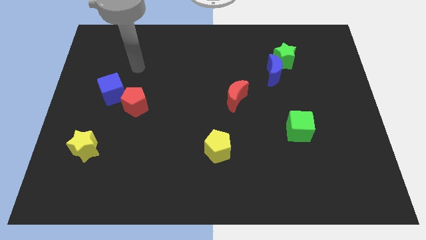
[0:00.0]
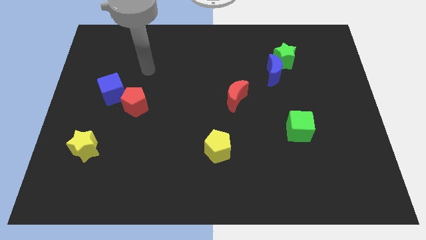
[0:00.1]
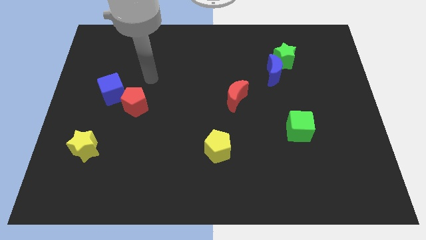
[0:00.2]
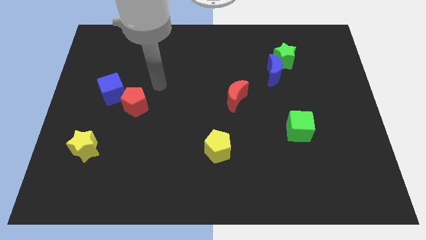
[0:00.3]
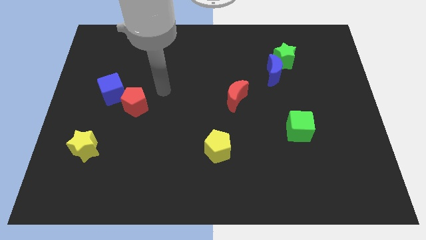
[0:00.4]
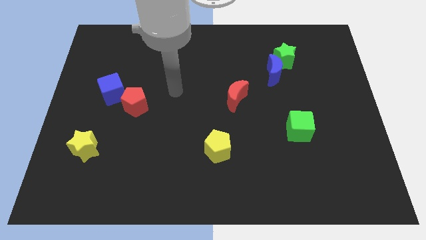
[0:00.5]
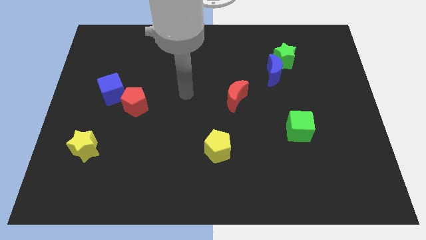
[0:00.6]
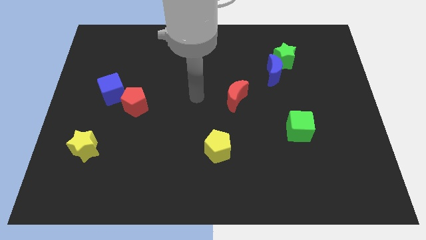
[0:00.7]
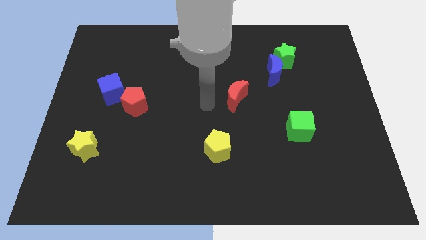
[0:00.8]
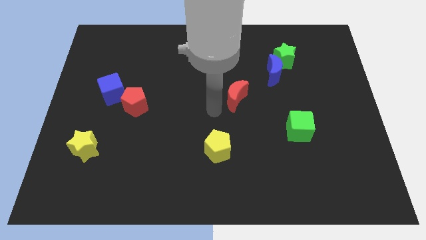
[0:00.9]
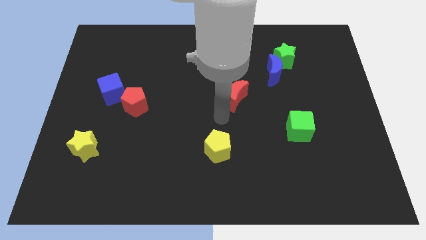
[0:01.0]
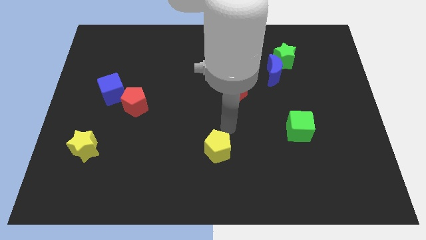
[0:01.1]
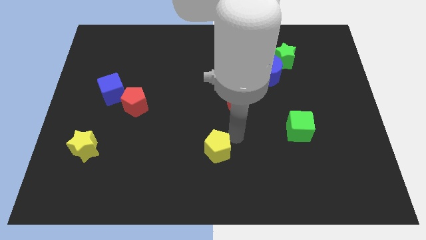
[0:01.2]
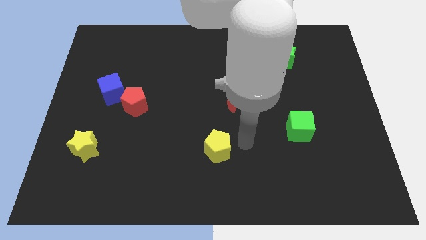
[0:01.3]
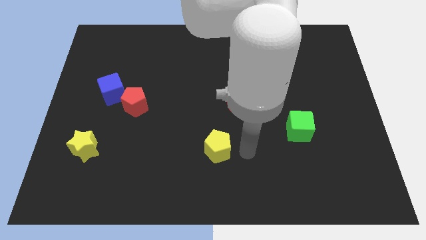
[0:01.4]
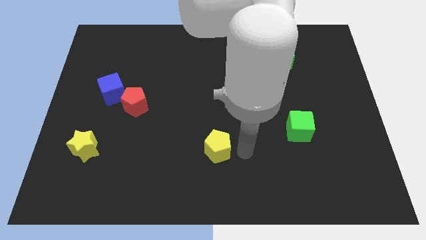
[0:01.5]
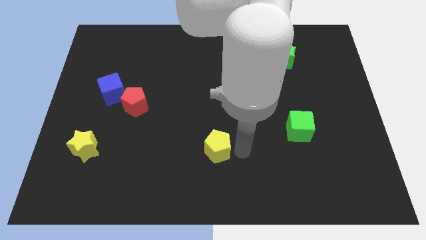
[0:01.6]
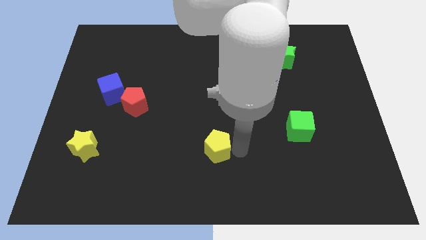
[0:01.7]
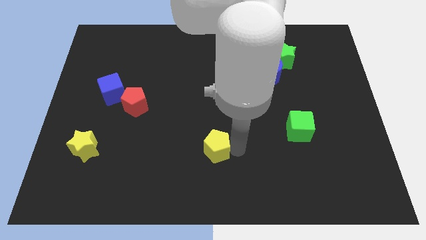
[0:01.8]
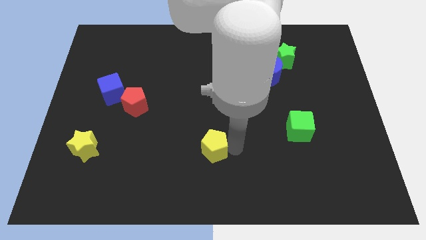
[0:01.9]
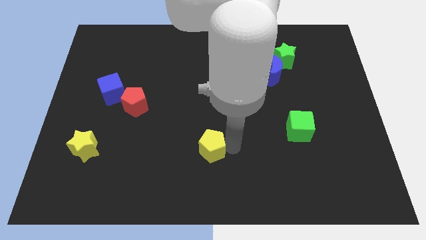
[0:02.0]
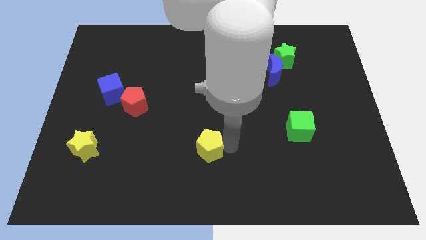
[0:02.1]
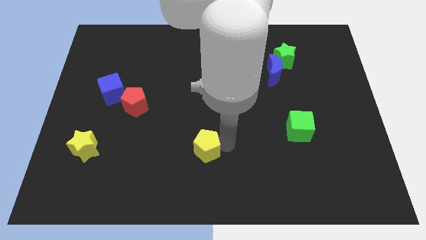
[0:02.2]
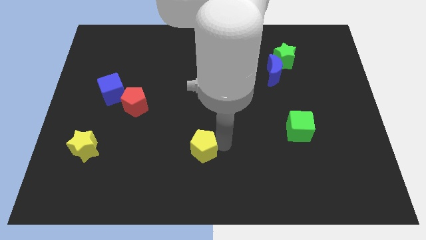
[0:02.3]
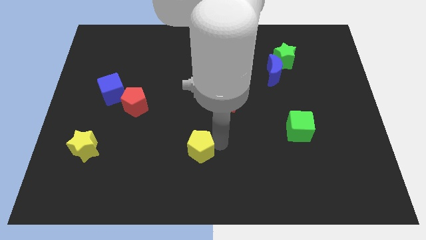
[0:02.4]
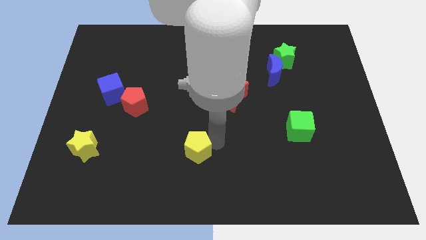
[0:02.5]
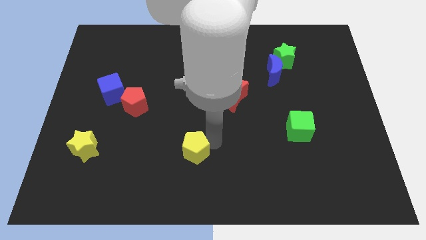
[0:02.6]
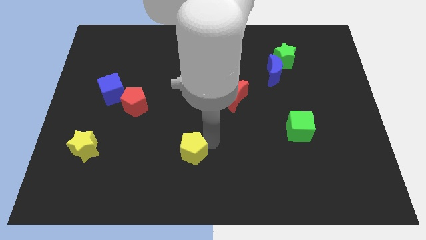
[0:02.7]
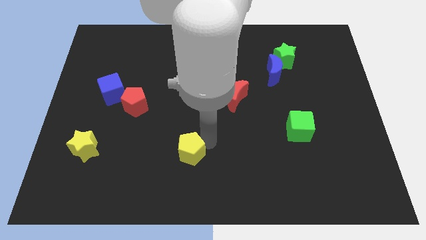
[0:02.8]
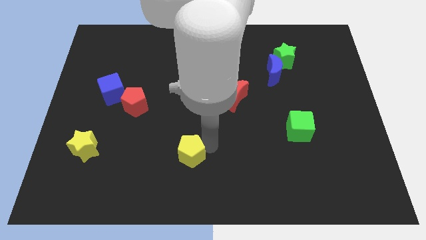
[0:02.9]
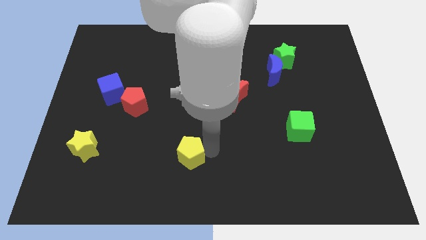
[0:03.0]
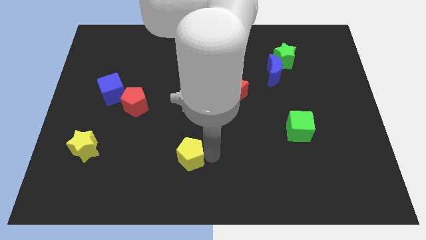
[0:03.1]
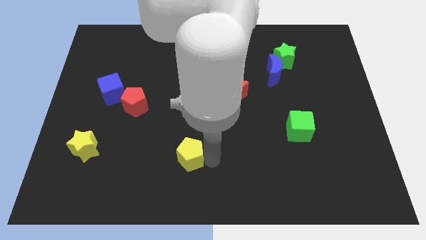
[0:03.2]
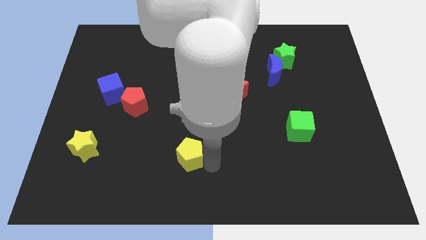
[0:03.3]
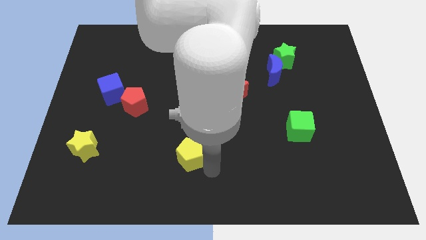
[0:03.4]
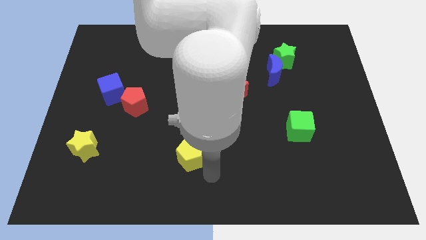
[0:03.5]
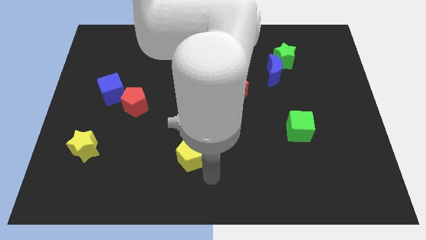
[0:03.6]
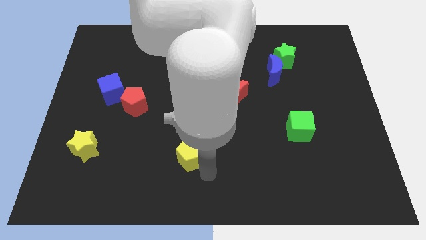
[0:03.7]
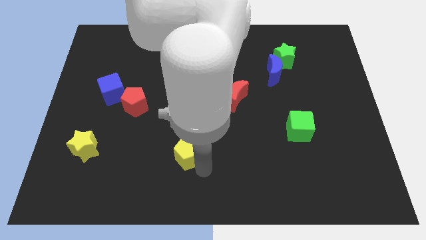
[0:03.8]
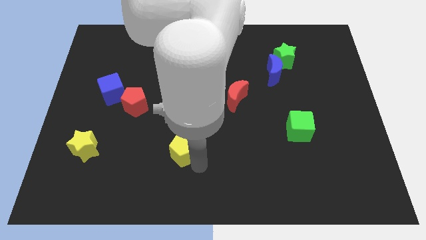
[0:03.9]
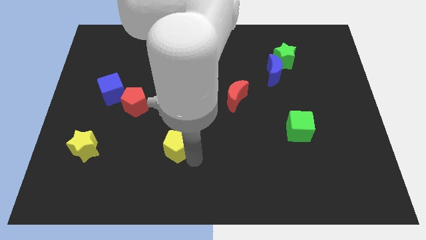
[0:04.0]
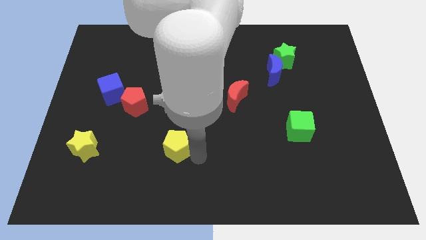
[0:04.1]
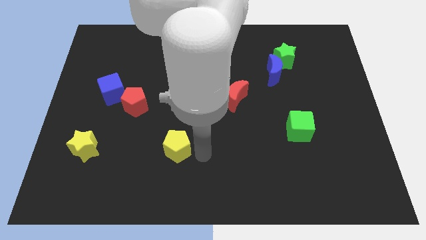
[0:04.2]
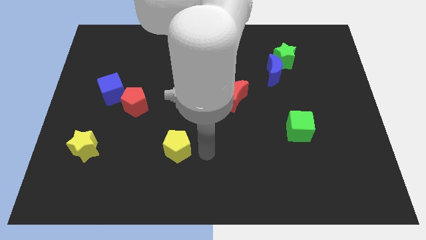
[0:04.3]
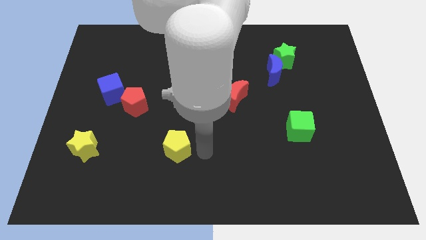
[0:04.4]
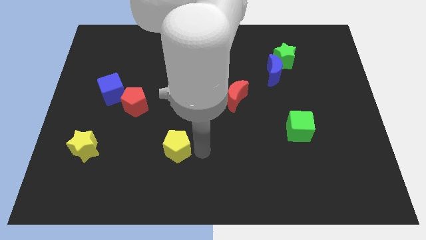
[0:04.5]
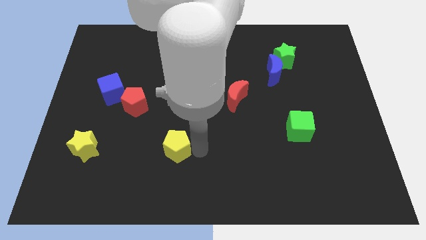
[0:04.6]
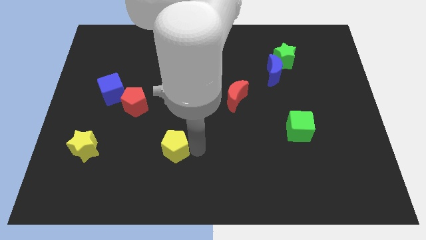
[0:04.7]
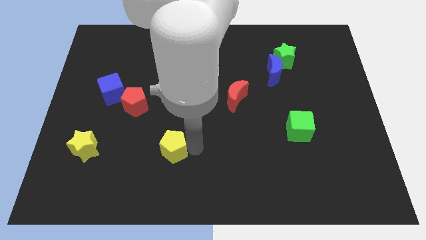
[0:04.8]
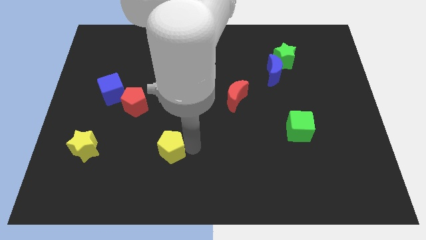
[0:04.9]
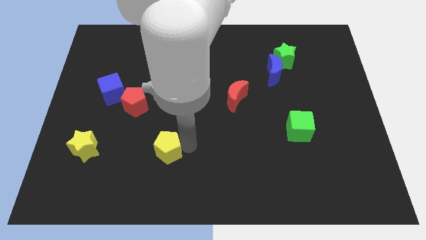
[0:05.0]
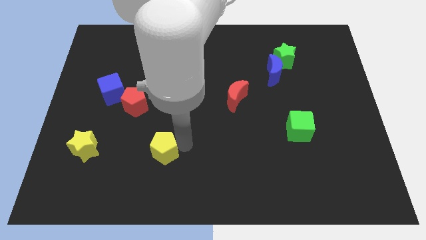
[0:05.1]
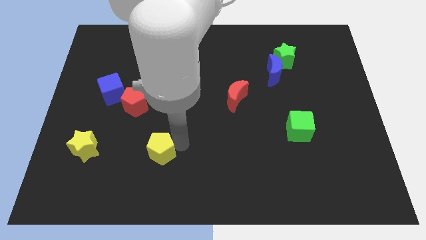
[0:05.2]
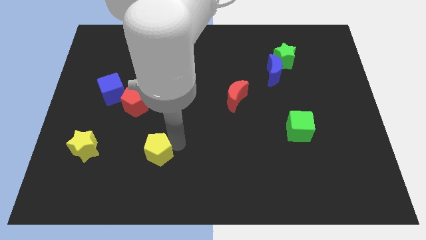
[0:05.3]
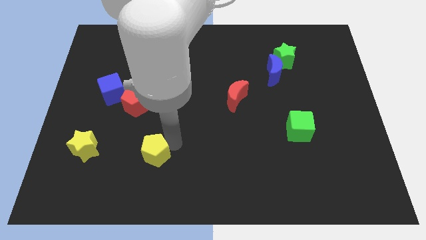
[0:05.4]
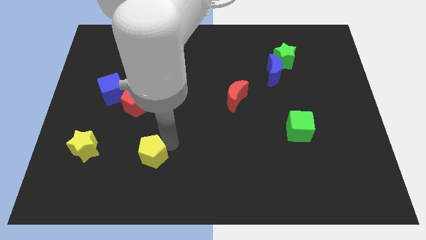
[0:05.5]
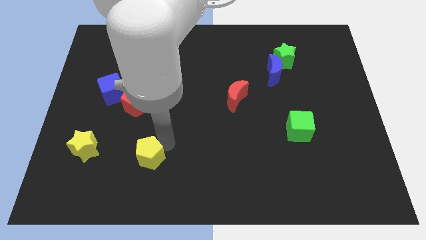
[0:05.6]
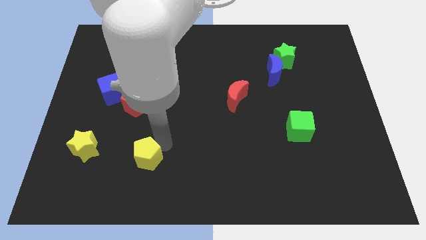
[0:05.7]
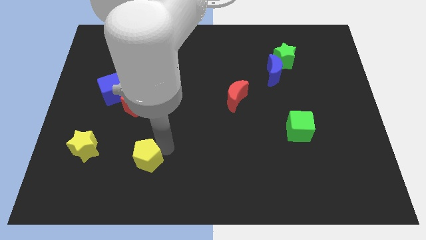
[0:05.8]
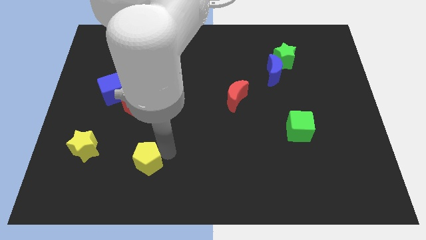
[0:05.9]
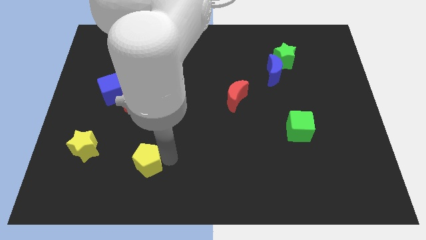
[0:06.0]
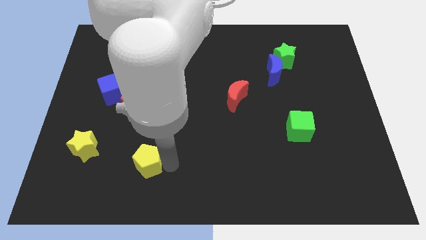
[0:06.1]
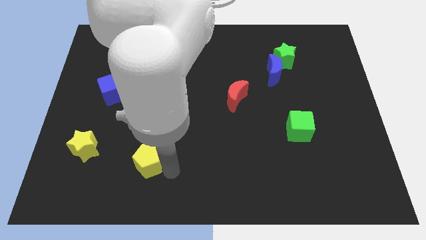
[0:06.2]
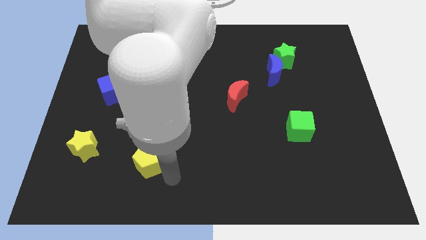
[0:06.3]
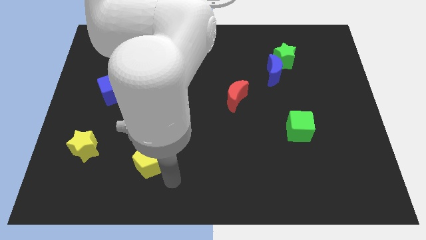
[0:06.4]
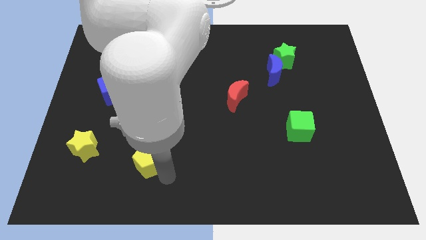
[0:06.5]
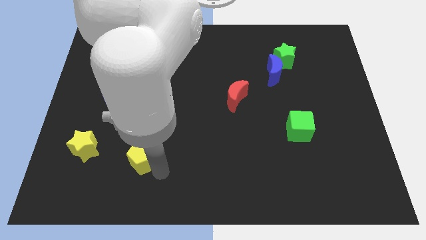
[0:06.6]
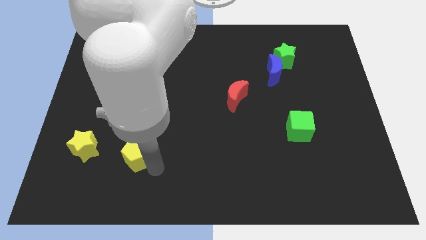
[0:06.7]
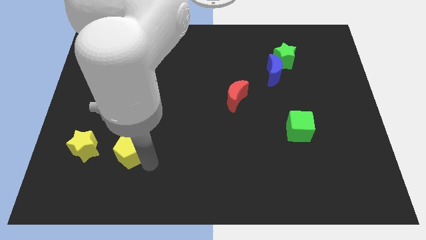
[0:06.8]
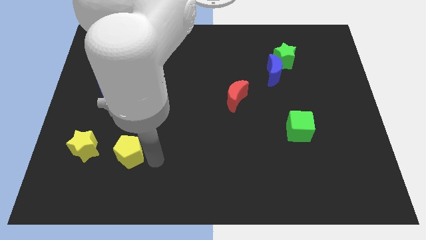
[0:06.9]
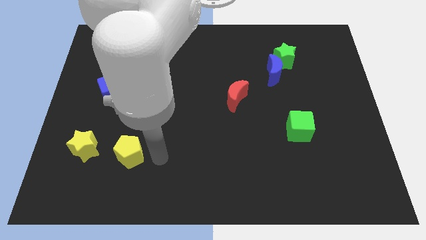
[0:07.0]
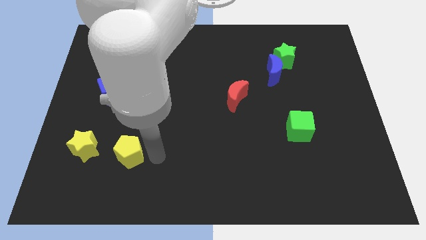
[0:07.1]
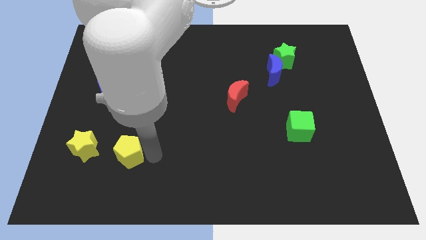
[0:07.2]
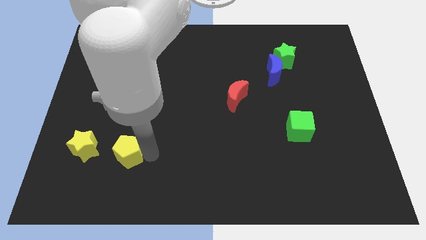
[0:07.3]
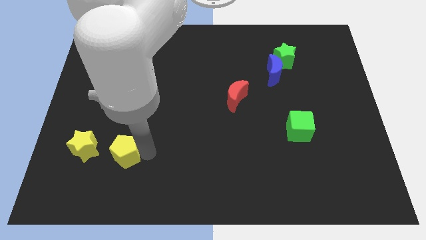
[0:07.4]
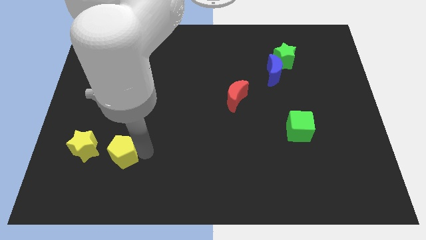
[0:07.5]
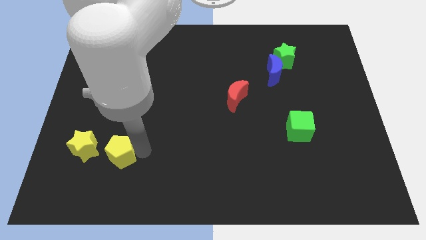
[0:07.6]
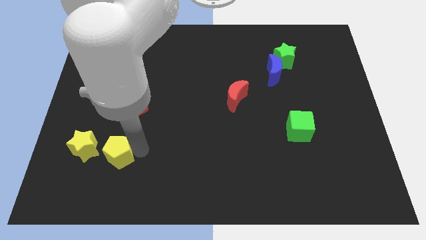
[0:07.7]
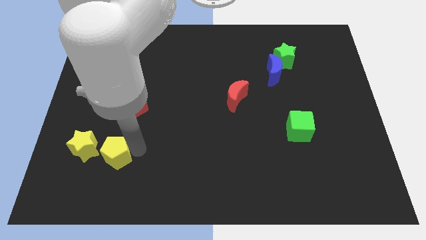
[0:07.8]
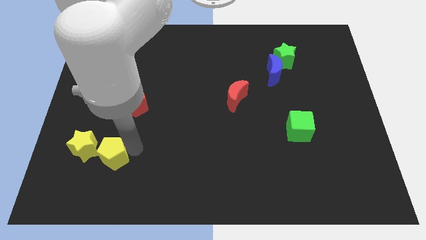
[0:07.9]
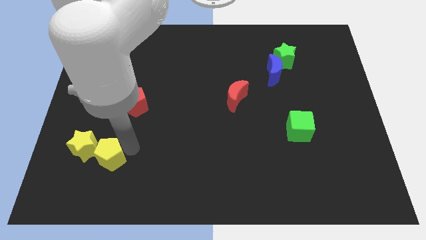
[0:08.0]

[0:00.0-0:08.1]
move the yellow pentagon close to the yellow star
